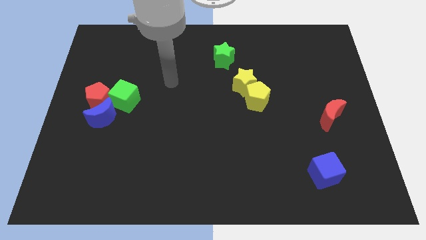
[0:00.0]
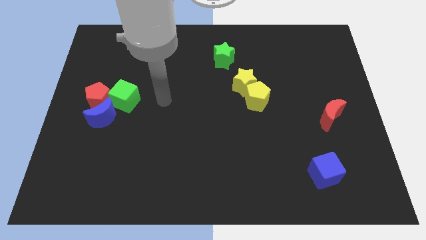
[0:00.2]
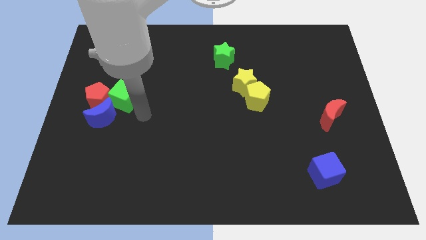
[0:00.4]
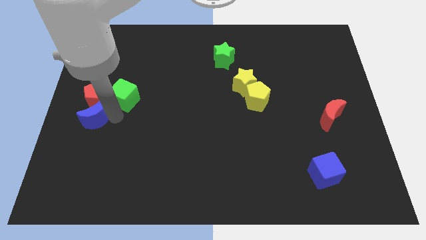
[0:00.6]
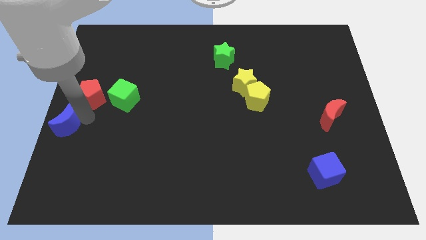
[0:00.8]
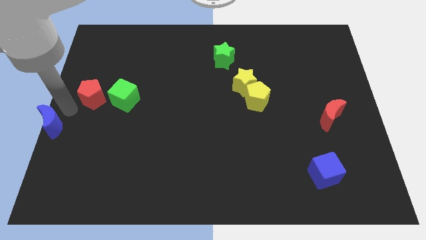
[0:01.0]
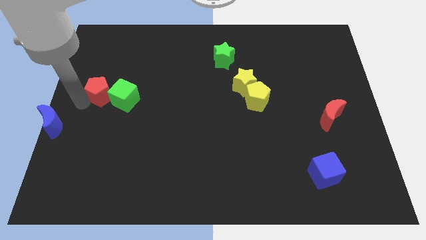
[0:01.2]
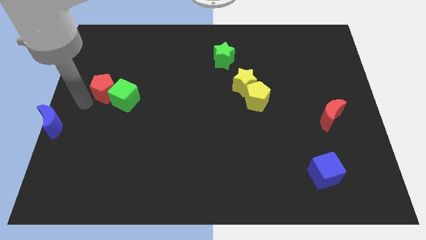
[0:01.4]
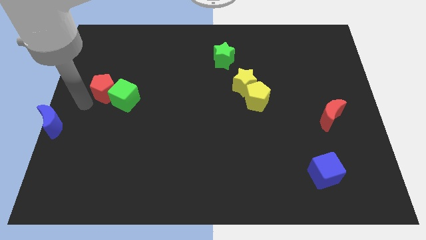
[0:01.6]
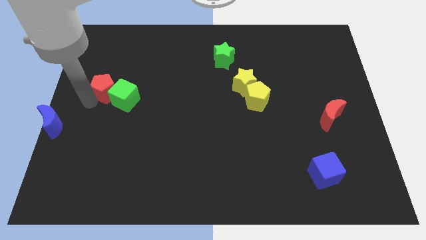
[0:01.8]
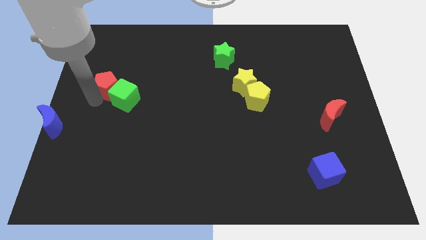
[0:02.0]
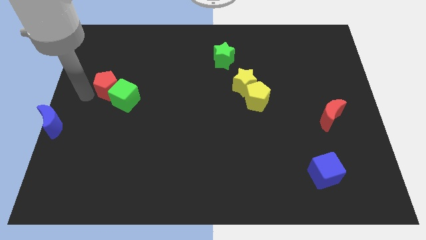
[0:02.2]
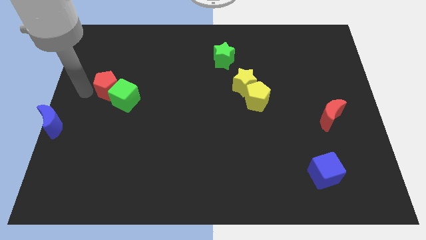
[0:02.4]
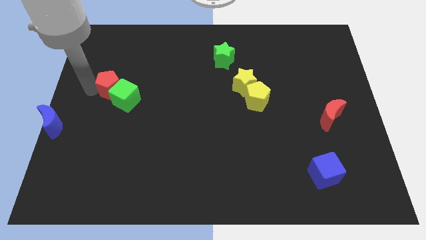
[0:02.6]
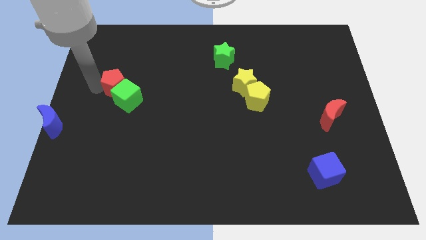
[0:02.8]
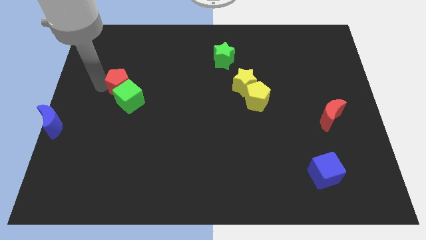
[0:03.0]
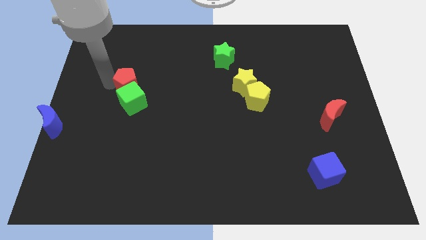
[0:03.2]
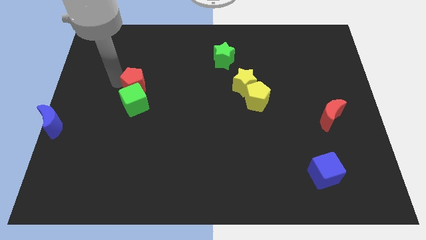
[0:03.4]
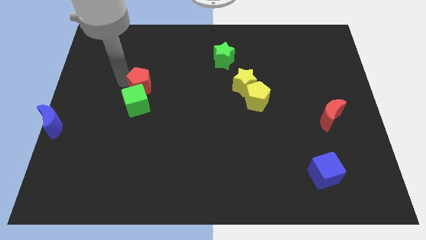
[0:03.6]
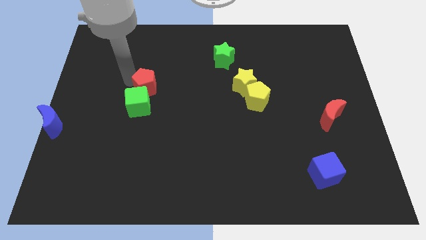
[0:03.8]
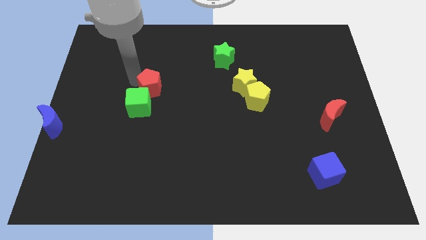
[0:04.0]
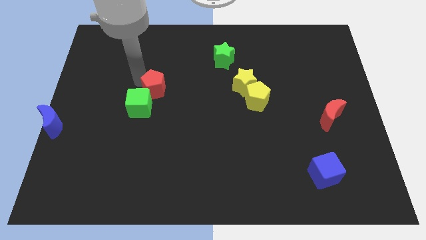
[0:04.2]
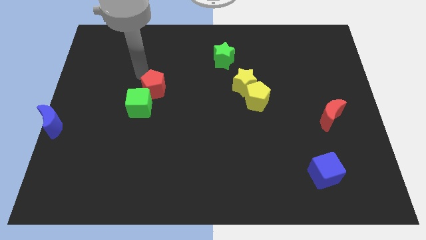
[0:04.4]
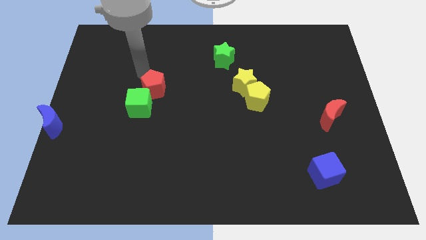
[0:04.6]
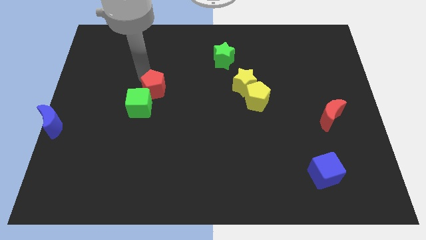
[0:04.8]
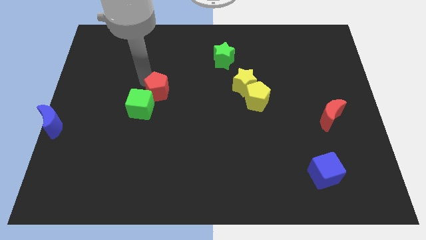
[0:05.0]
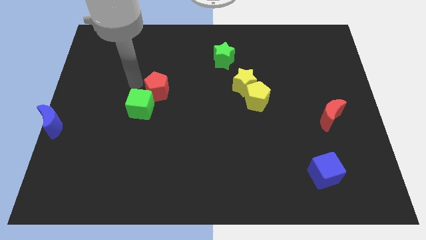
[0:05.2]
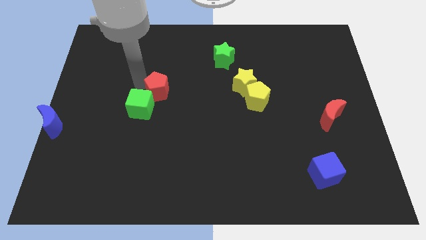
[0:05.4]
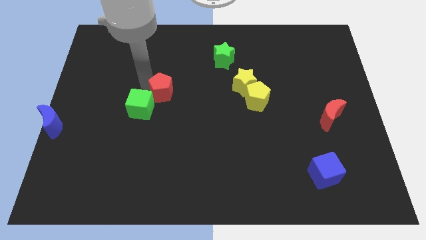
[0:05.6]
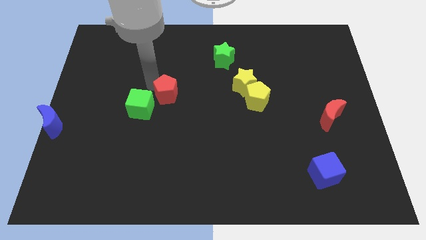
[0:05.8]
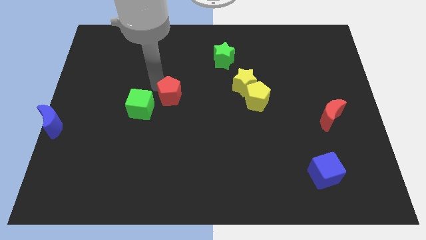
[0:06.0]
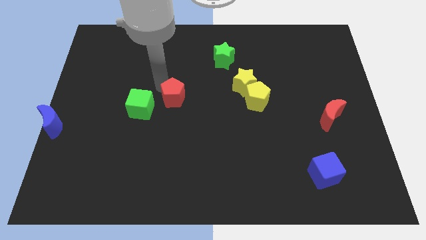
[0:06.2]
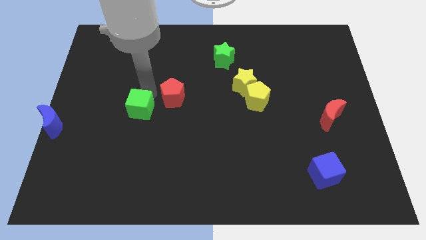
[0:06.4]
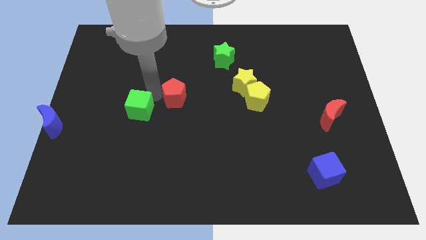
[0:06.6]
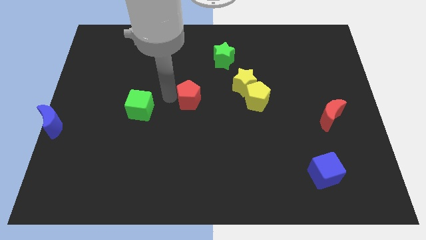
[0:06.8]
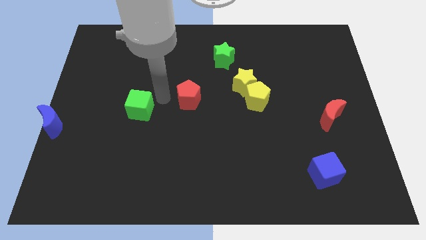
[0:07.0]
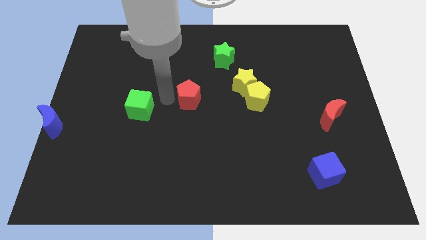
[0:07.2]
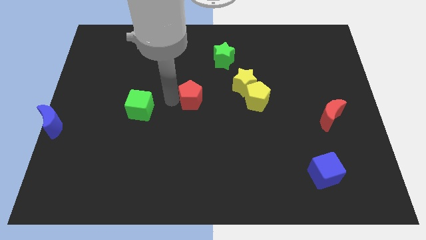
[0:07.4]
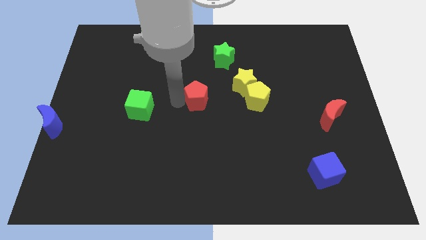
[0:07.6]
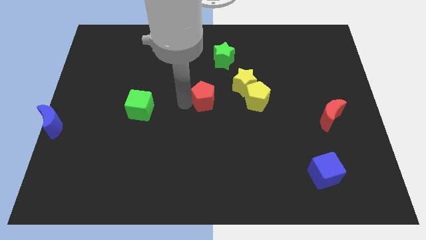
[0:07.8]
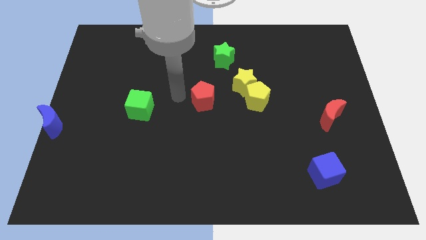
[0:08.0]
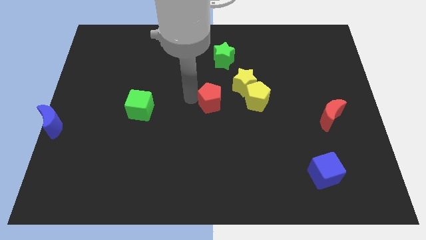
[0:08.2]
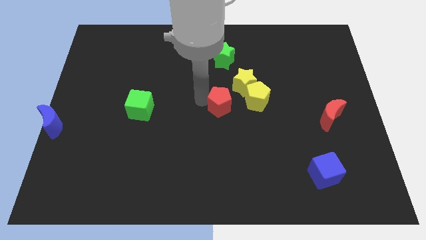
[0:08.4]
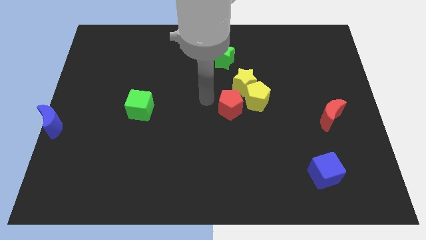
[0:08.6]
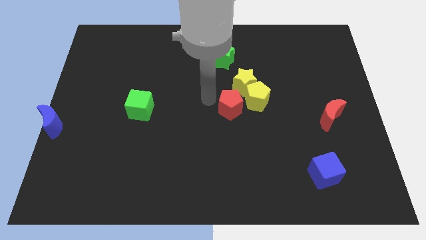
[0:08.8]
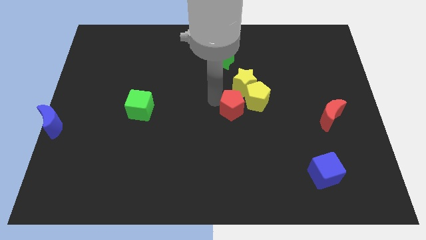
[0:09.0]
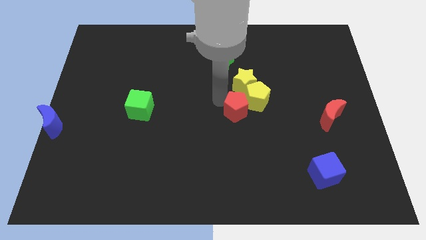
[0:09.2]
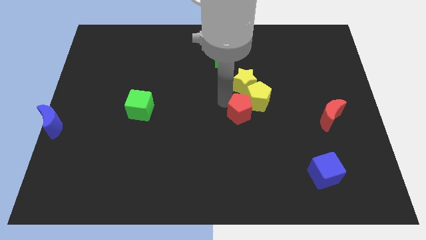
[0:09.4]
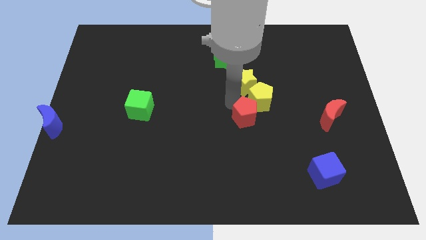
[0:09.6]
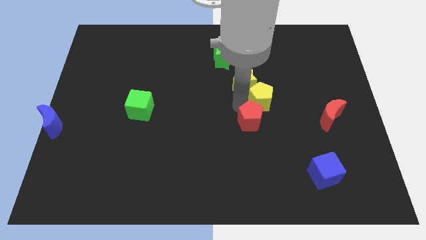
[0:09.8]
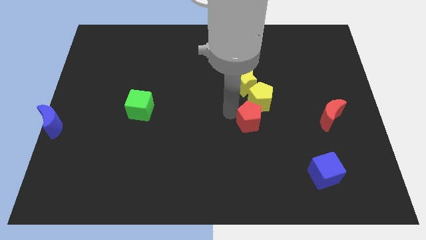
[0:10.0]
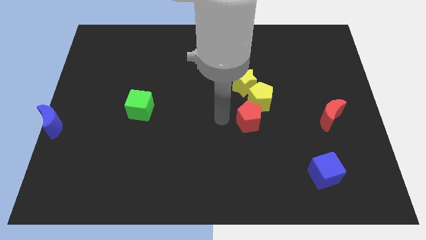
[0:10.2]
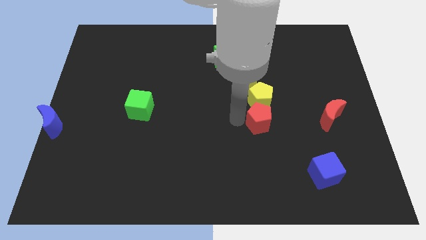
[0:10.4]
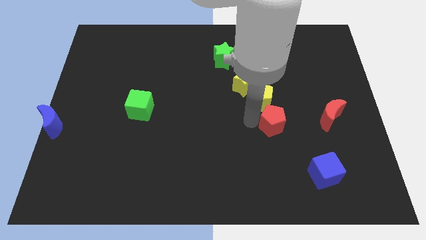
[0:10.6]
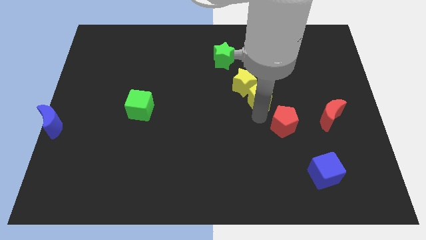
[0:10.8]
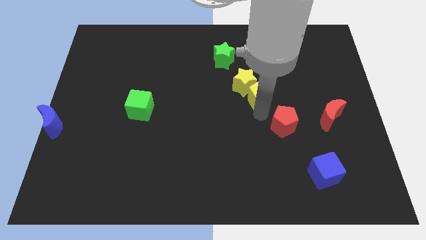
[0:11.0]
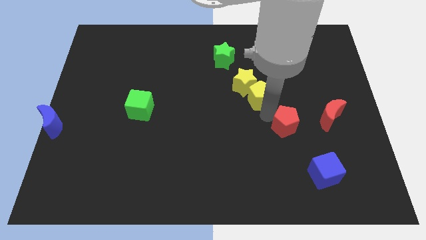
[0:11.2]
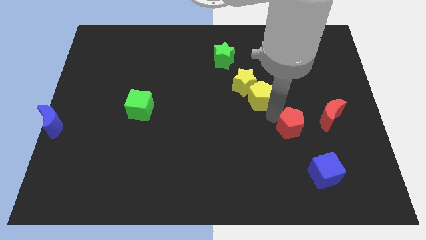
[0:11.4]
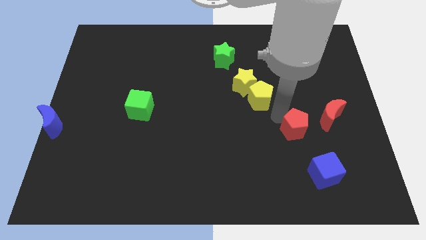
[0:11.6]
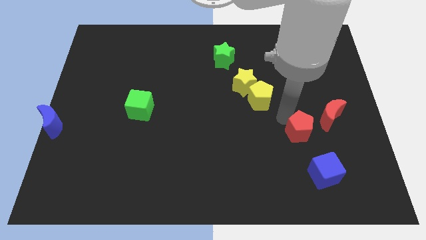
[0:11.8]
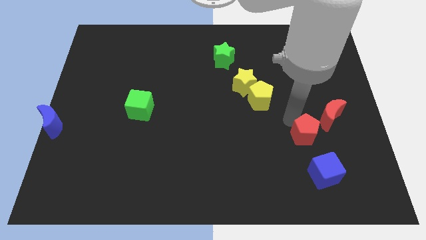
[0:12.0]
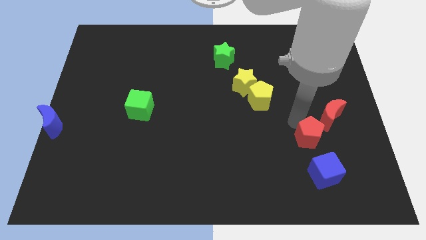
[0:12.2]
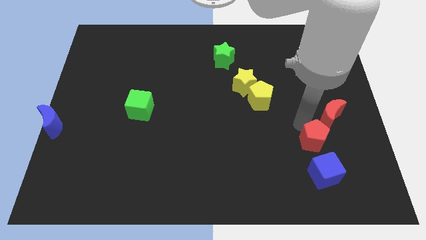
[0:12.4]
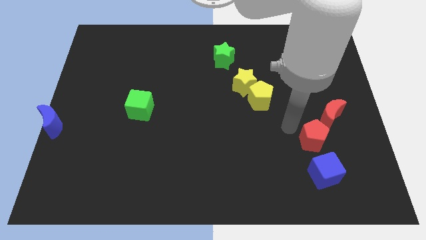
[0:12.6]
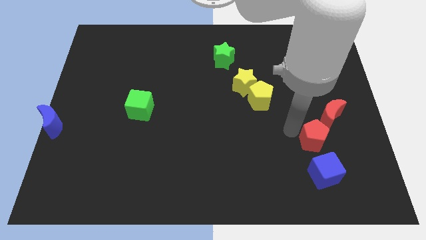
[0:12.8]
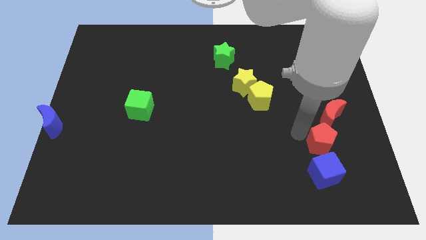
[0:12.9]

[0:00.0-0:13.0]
slide the red pentagon diagonally up and to the right of the blue cube

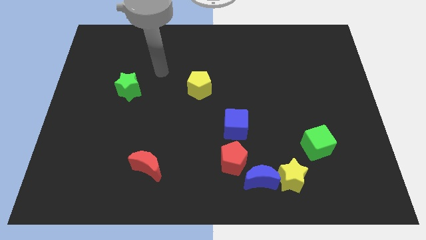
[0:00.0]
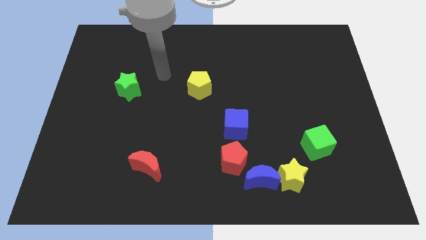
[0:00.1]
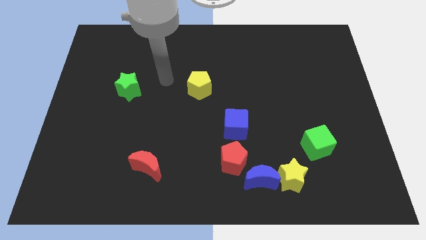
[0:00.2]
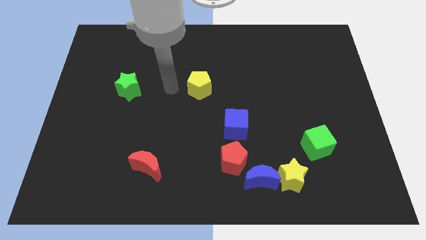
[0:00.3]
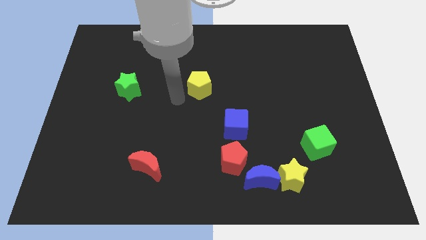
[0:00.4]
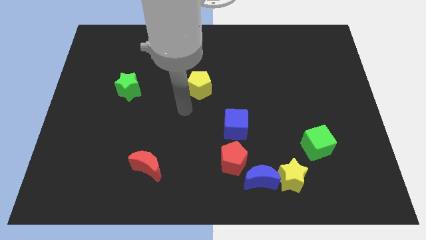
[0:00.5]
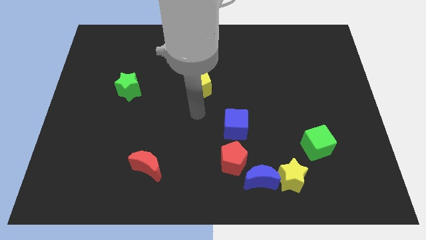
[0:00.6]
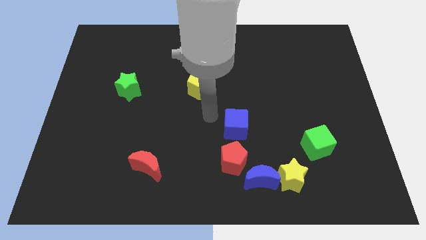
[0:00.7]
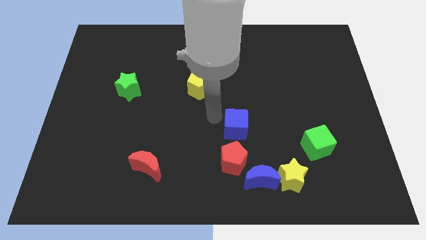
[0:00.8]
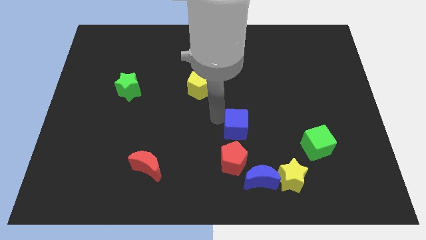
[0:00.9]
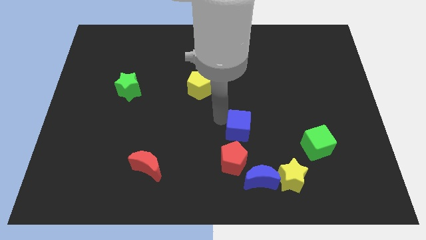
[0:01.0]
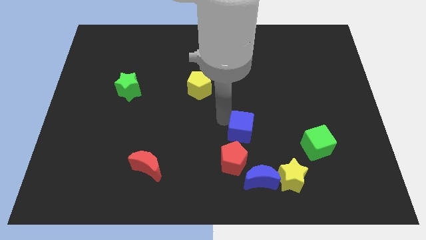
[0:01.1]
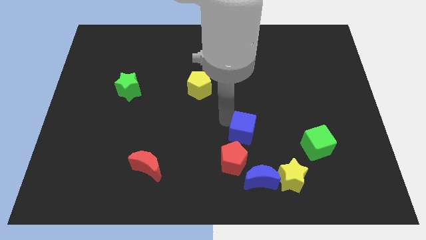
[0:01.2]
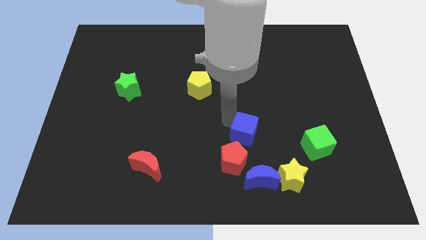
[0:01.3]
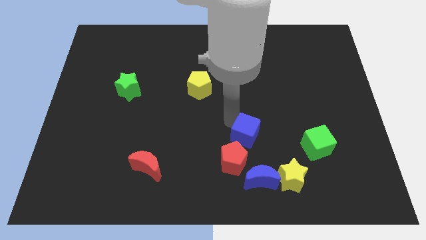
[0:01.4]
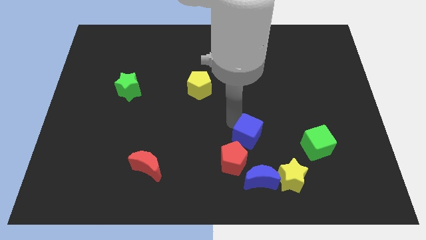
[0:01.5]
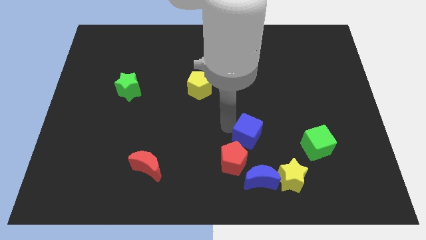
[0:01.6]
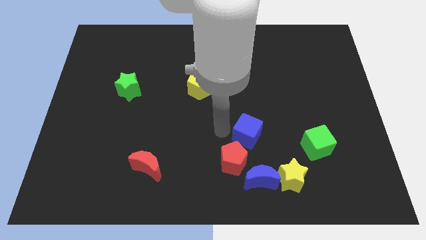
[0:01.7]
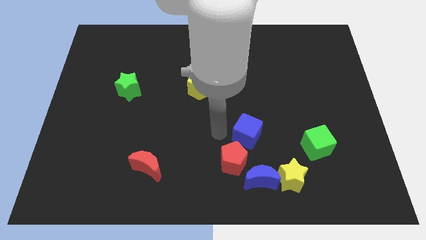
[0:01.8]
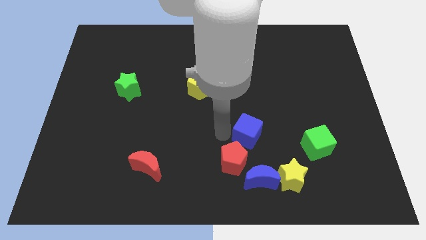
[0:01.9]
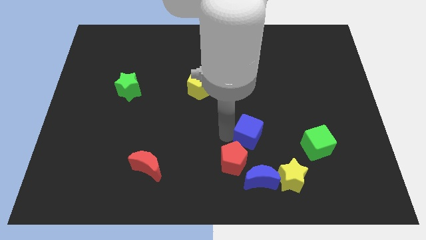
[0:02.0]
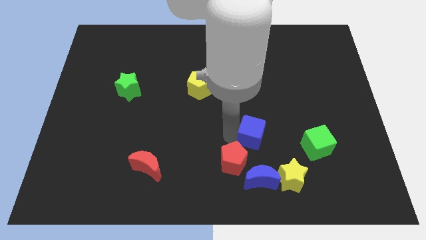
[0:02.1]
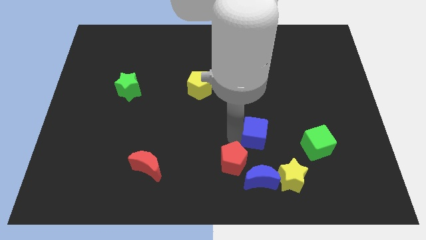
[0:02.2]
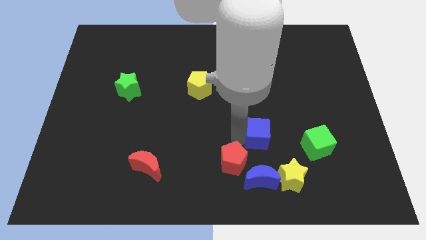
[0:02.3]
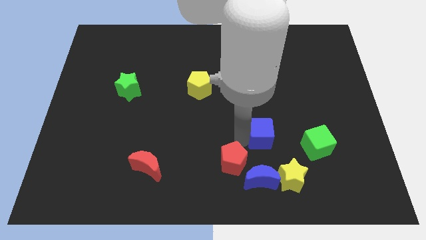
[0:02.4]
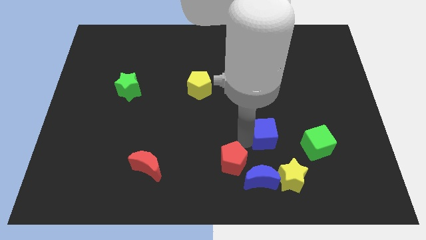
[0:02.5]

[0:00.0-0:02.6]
move the blue cube above the yellow star
